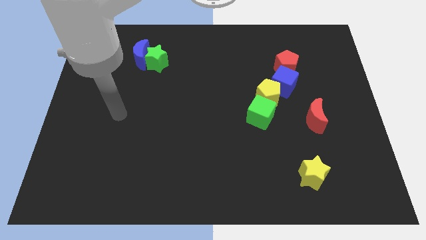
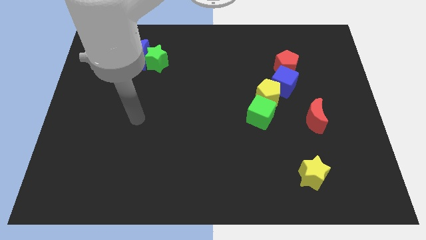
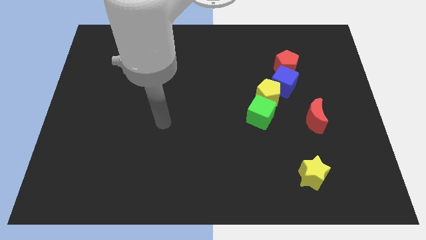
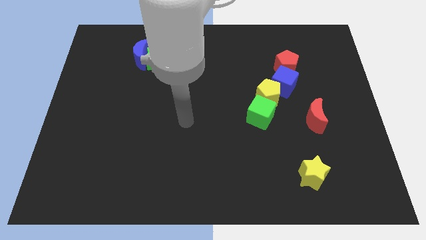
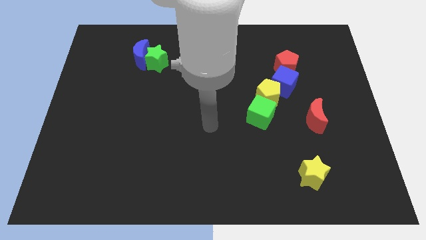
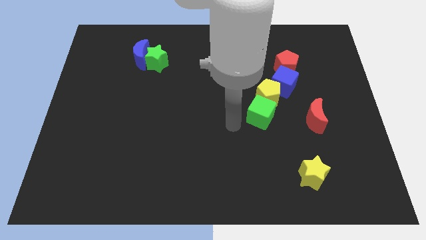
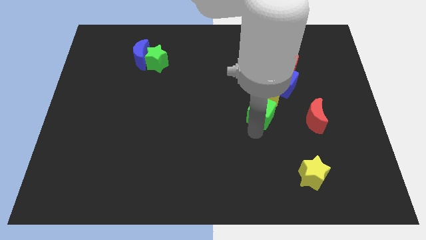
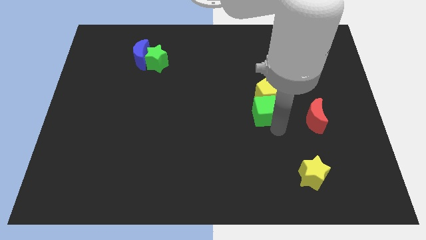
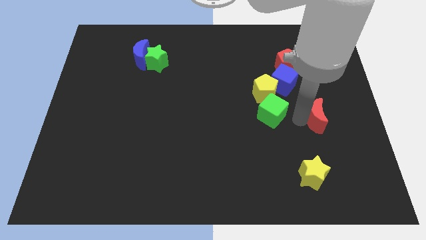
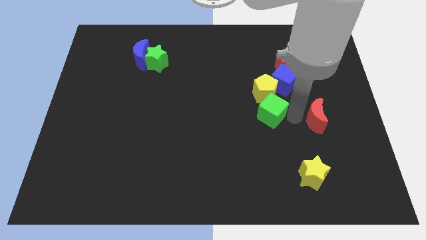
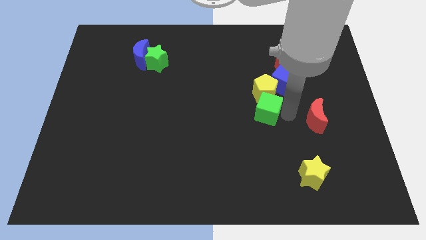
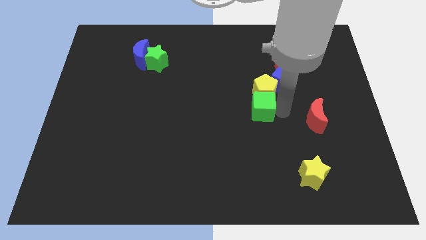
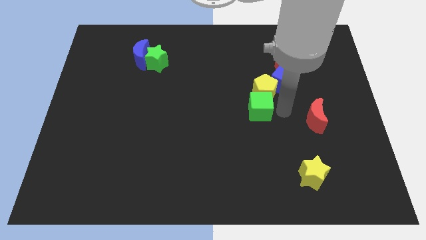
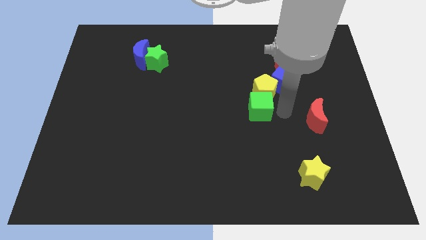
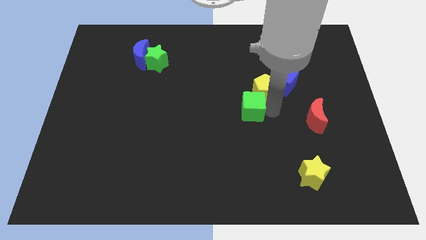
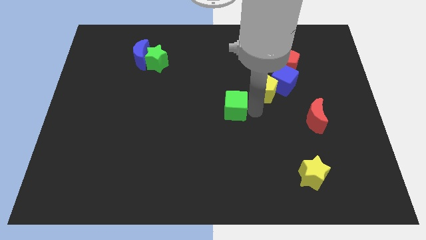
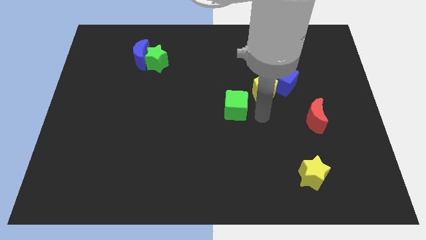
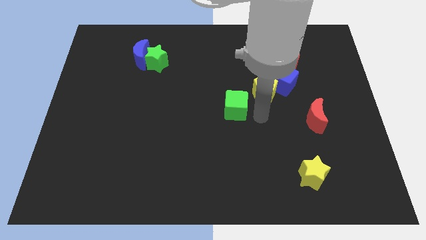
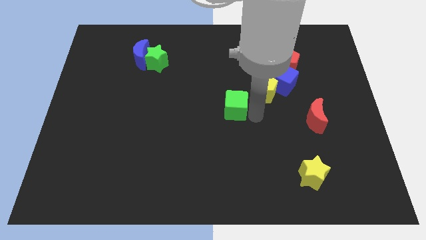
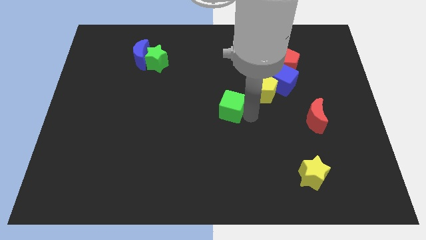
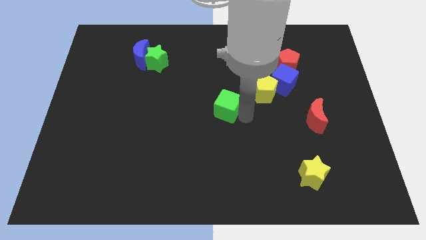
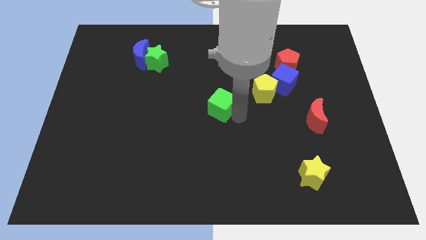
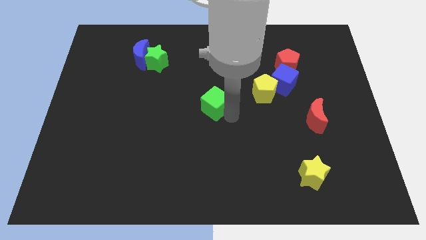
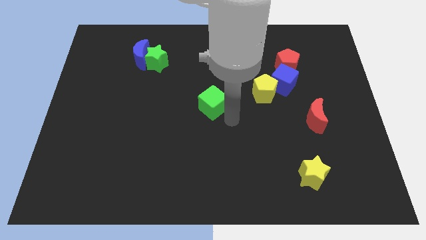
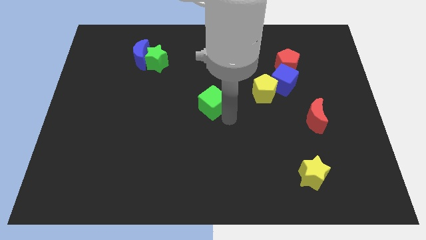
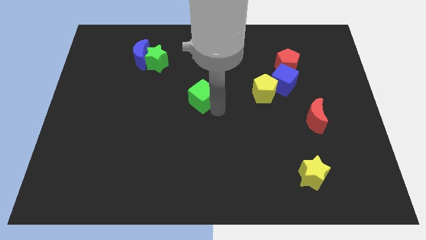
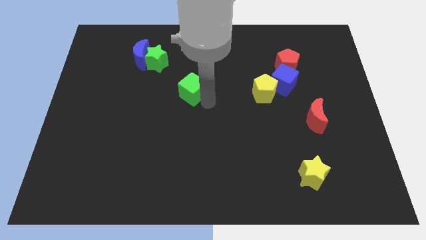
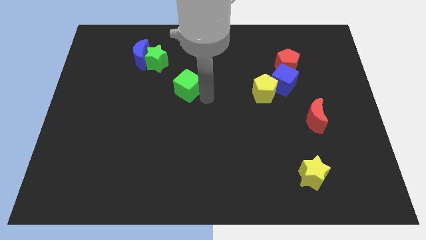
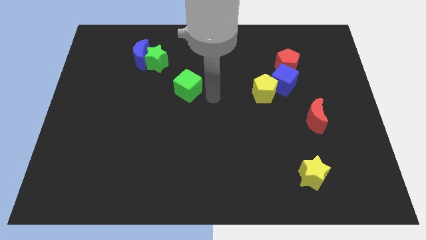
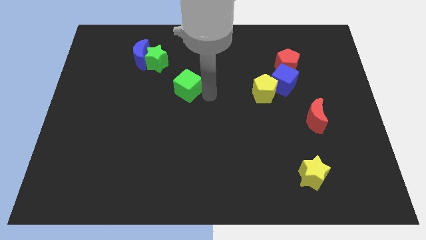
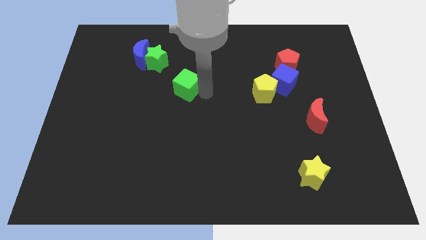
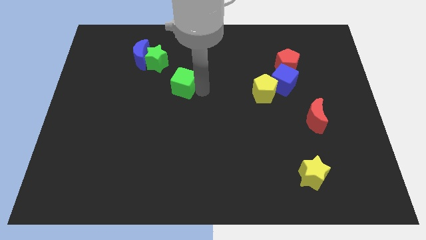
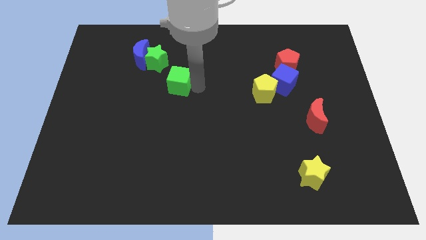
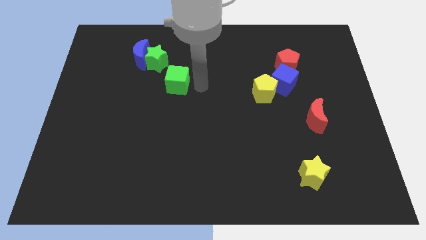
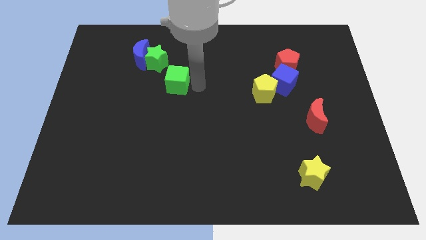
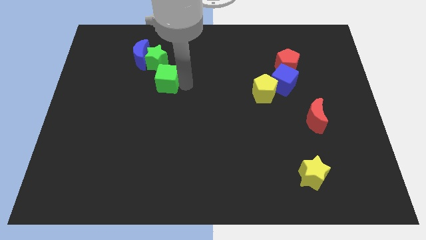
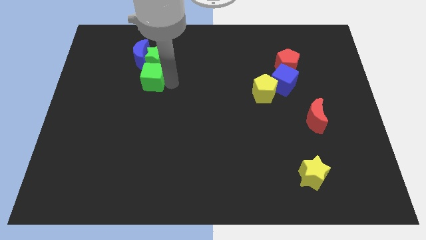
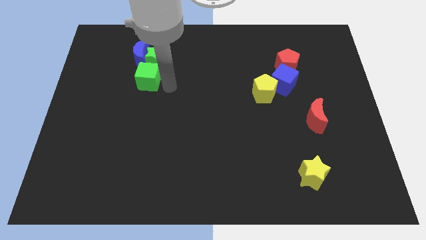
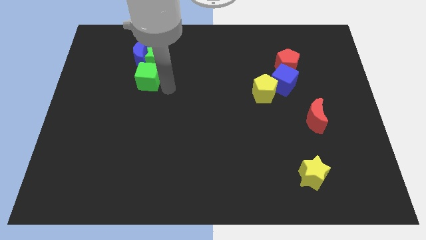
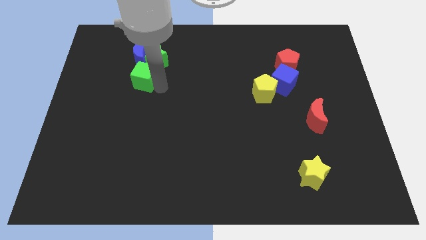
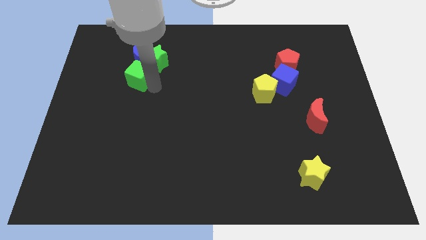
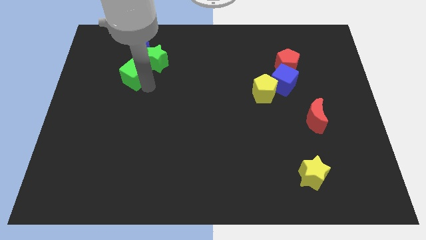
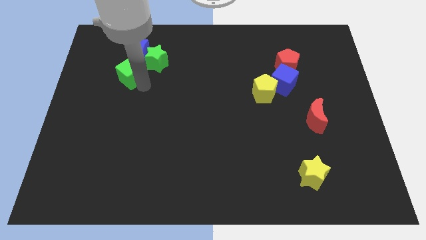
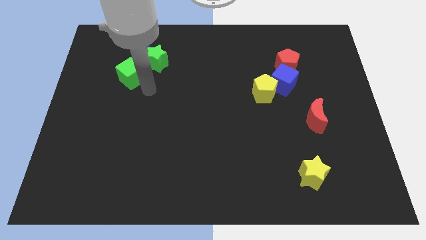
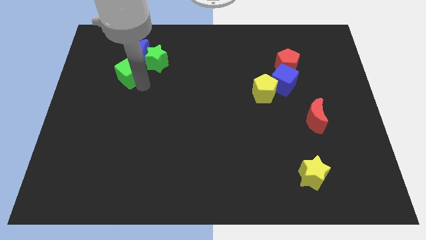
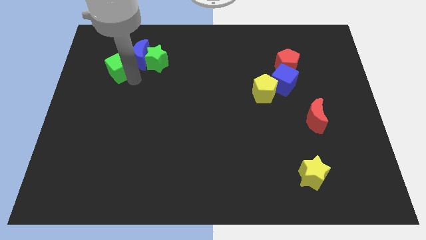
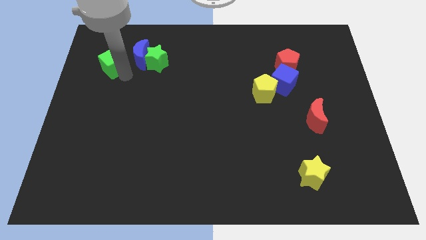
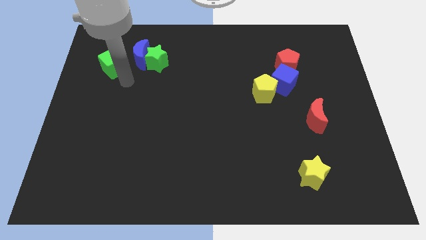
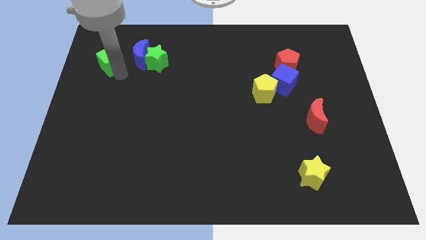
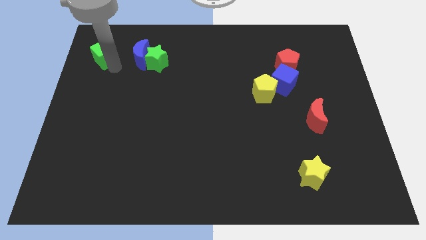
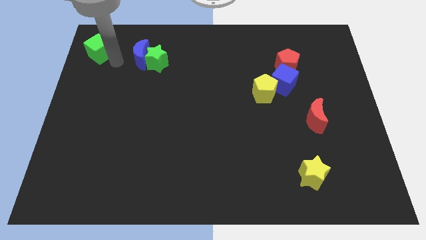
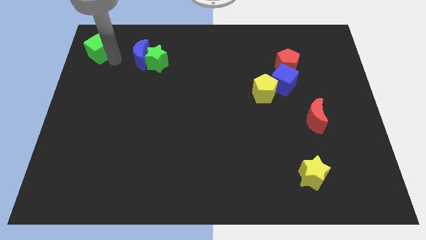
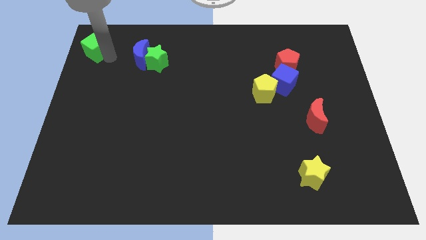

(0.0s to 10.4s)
push the green cube to the top left

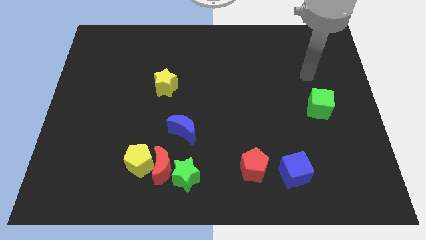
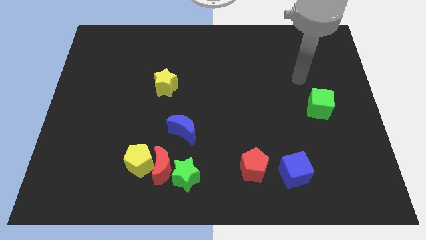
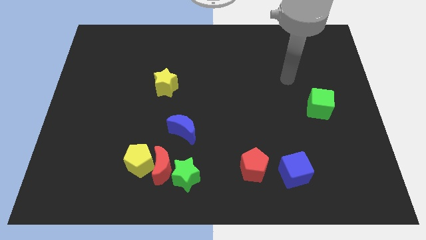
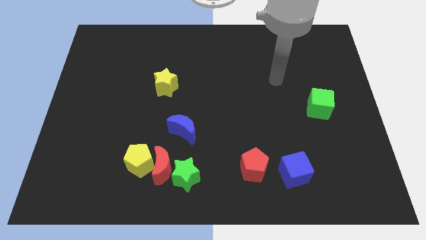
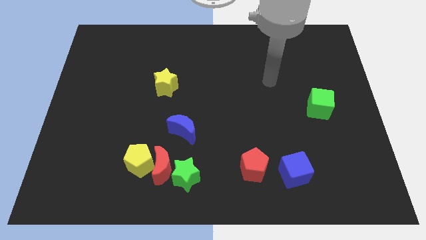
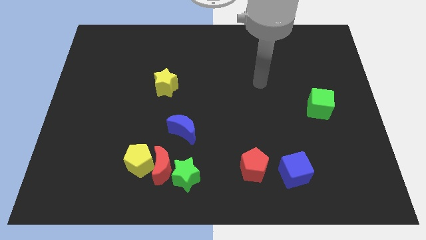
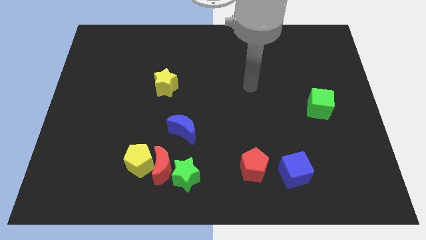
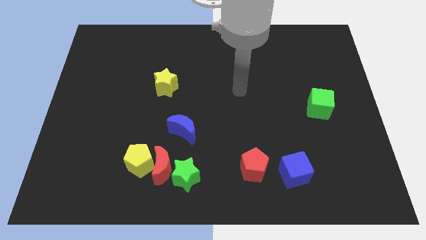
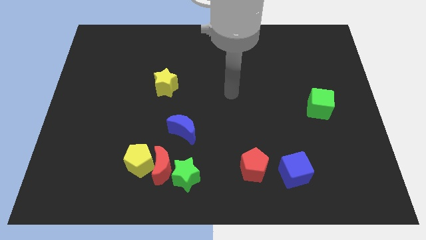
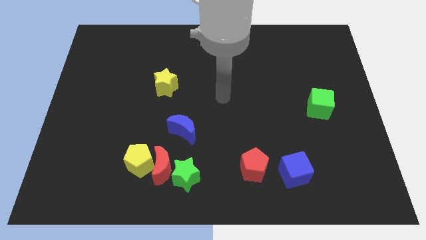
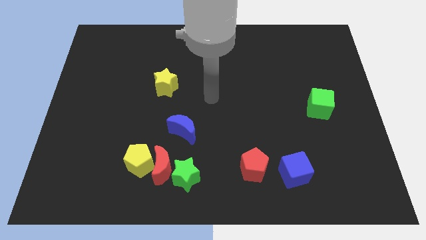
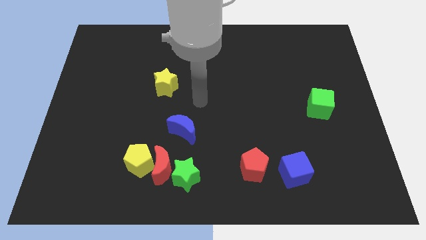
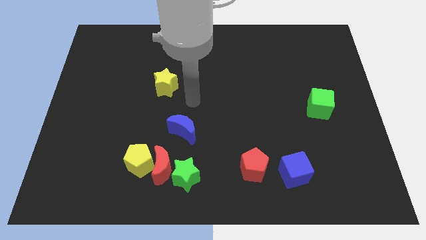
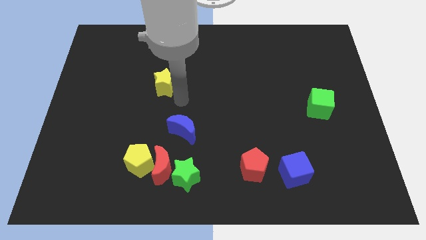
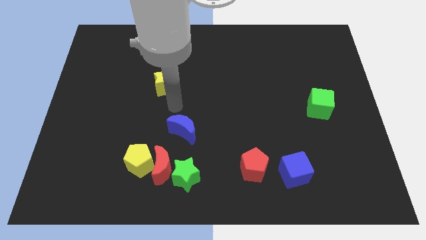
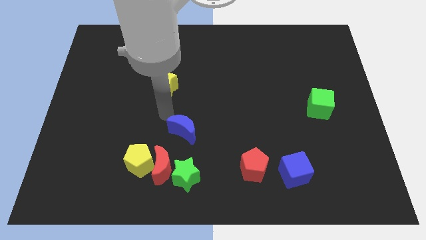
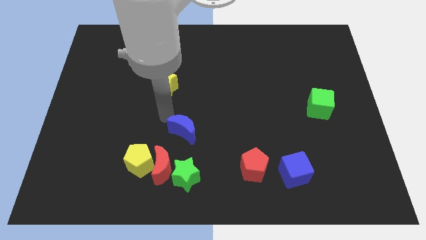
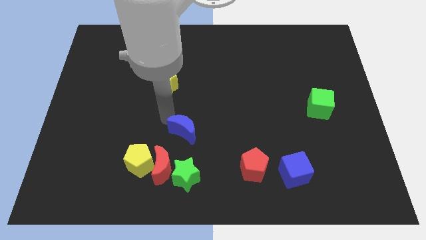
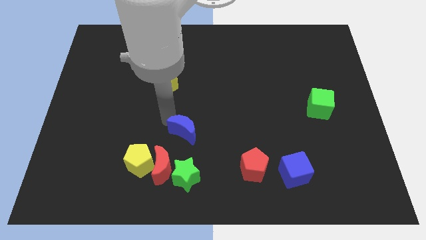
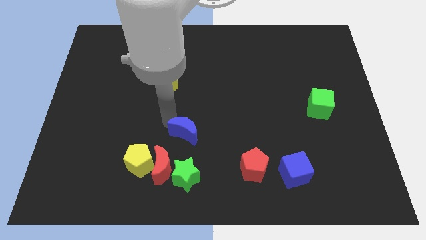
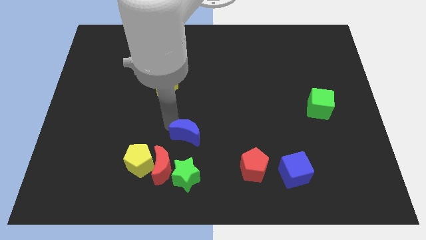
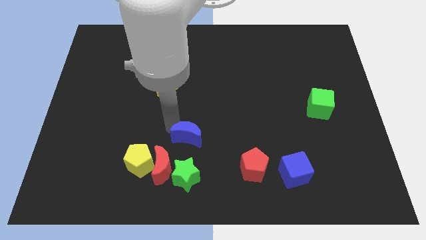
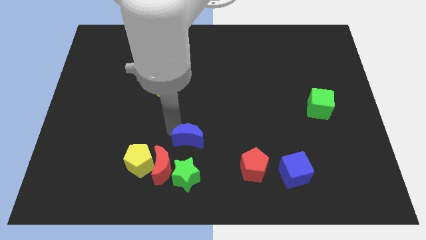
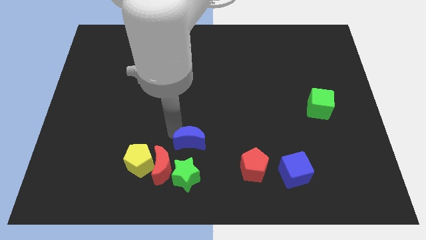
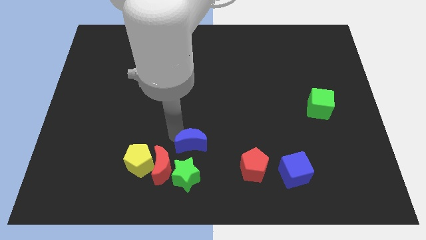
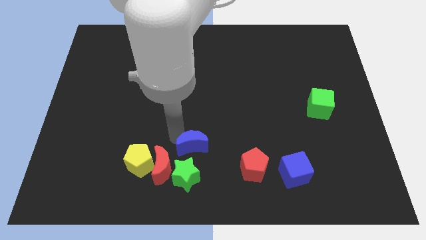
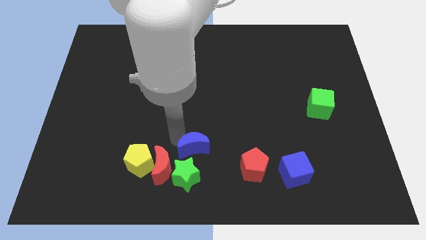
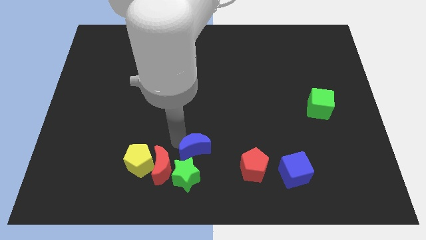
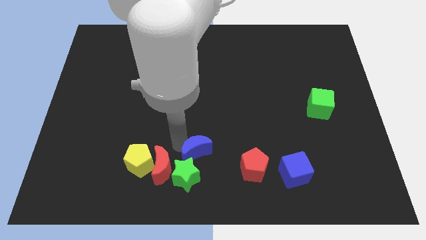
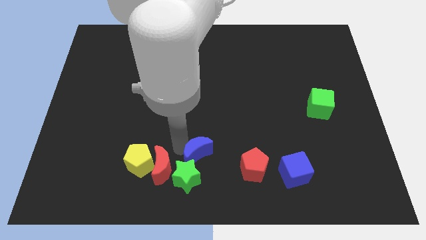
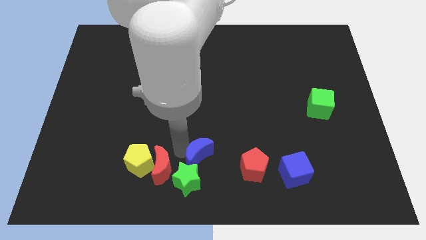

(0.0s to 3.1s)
slide the blue moon to the bottom
